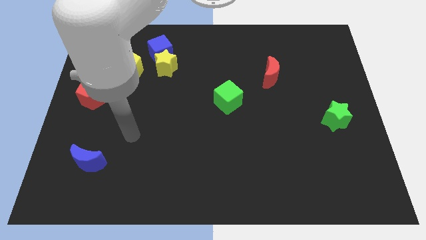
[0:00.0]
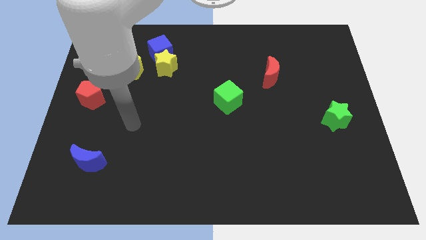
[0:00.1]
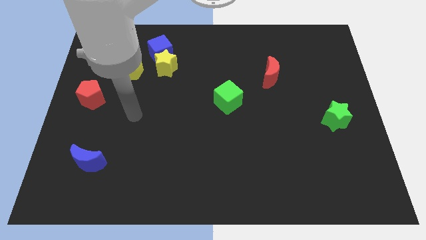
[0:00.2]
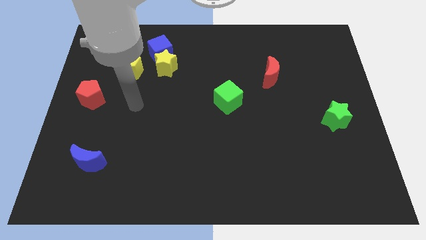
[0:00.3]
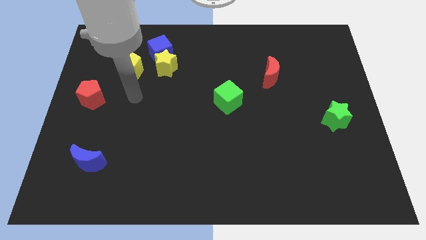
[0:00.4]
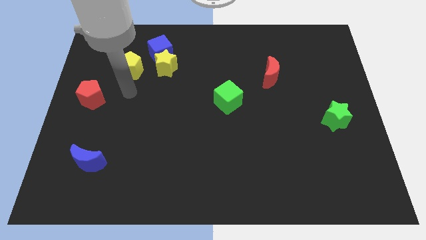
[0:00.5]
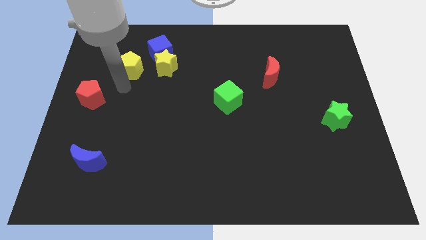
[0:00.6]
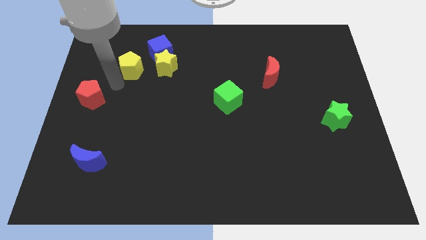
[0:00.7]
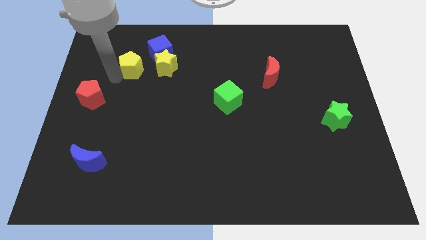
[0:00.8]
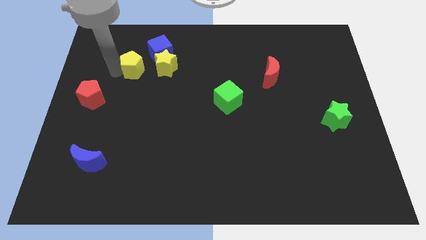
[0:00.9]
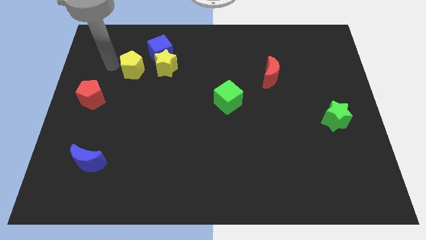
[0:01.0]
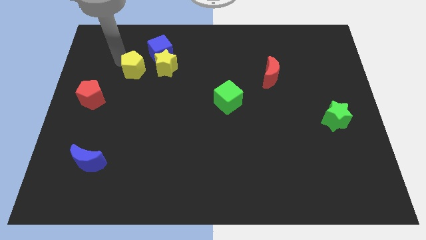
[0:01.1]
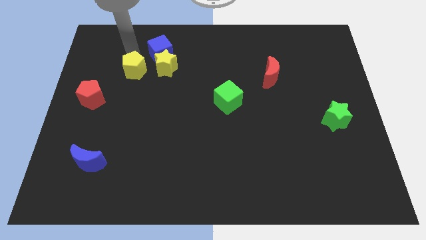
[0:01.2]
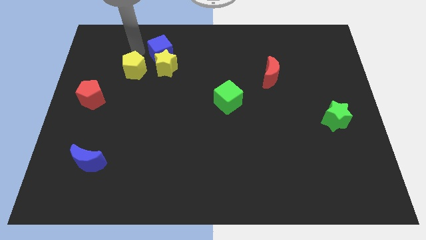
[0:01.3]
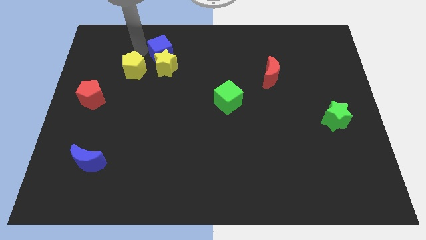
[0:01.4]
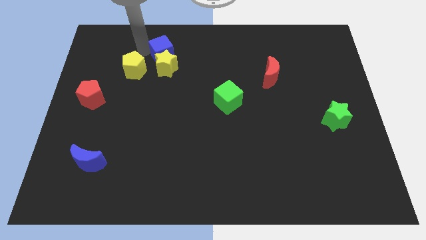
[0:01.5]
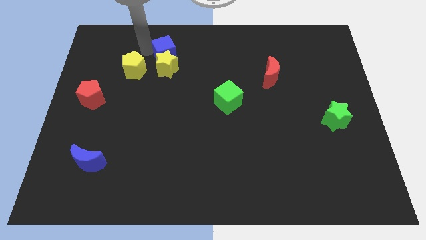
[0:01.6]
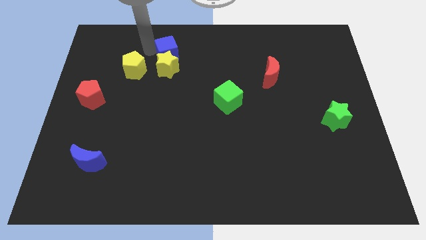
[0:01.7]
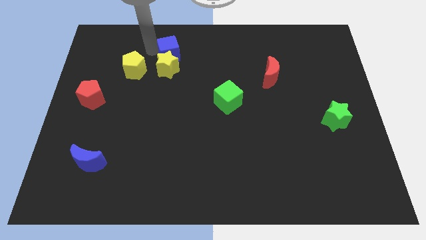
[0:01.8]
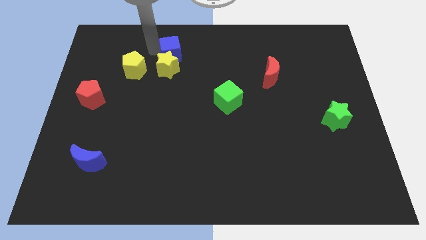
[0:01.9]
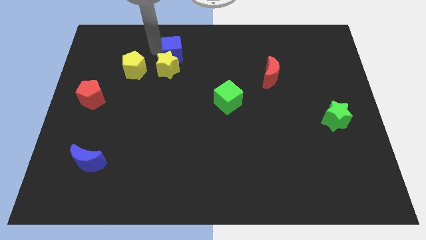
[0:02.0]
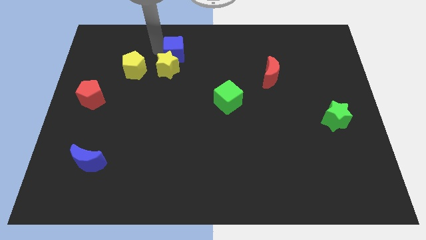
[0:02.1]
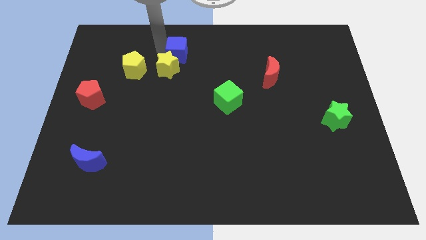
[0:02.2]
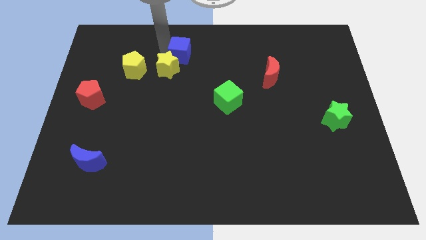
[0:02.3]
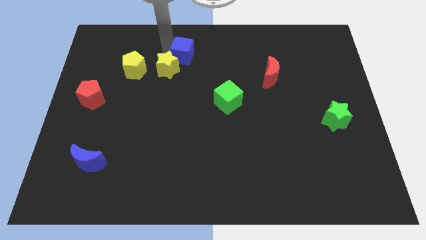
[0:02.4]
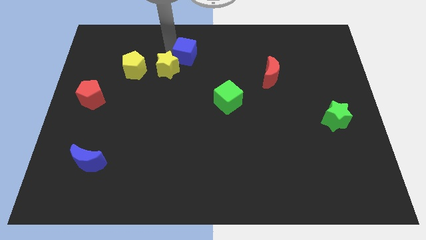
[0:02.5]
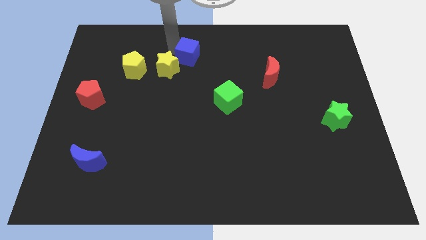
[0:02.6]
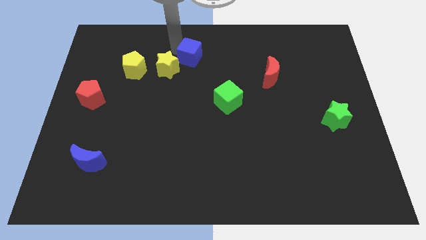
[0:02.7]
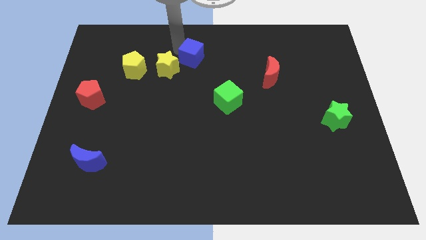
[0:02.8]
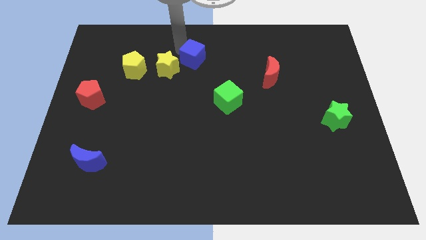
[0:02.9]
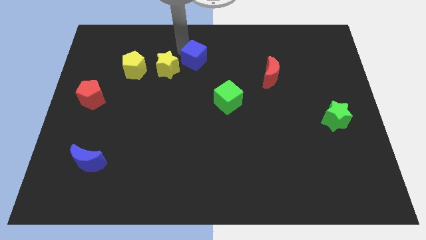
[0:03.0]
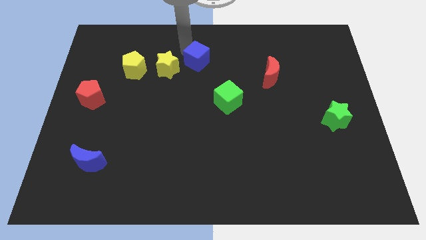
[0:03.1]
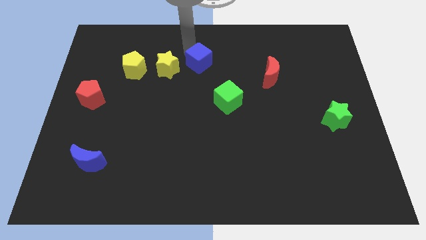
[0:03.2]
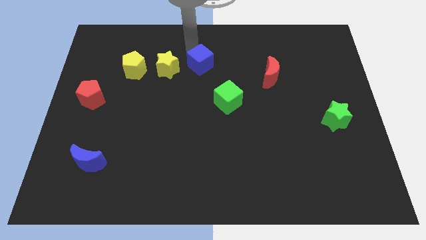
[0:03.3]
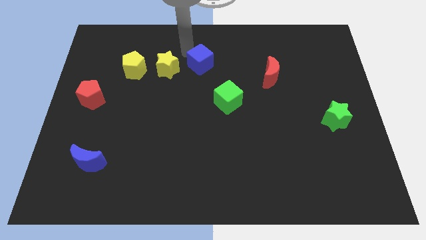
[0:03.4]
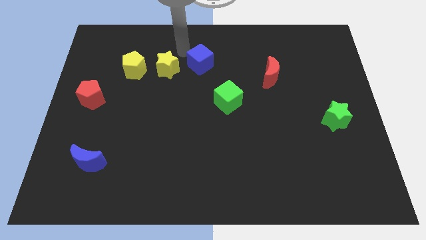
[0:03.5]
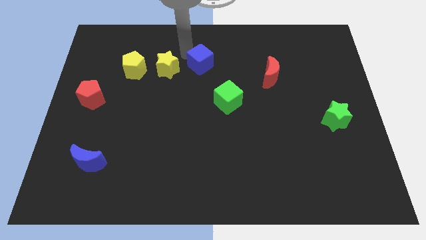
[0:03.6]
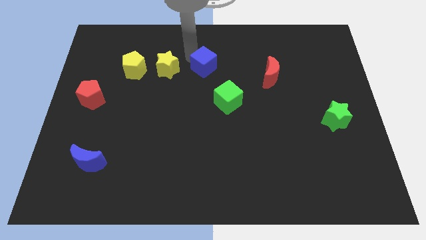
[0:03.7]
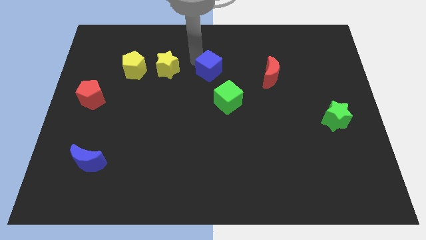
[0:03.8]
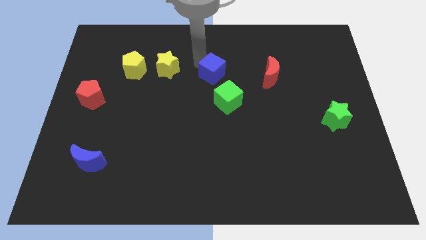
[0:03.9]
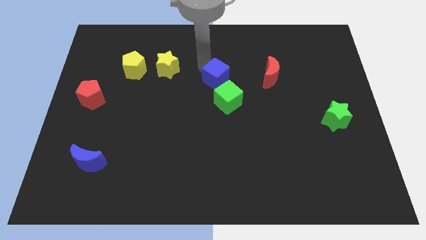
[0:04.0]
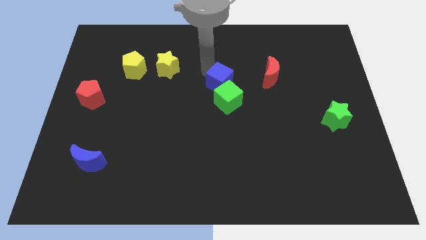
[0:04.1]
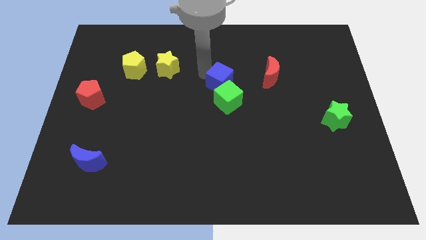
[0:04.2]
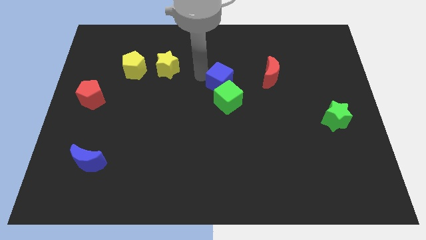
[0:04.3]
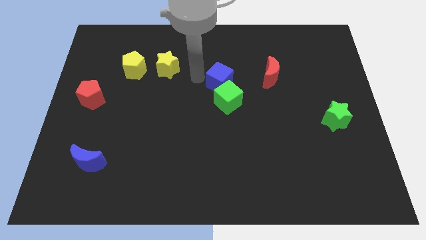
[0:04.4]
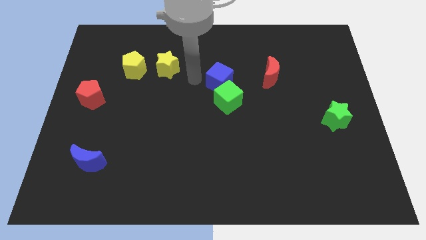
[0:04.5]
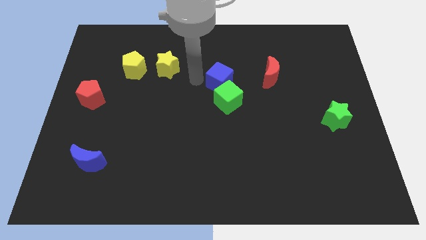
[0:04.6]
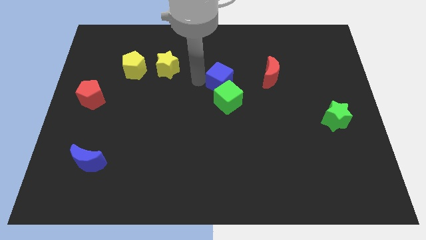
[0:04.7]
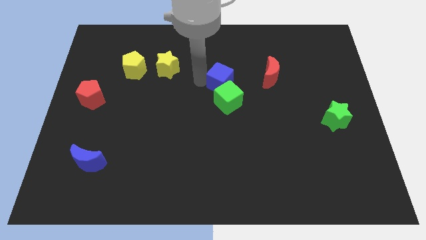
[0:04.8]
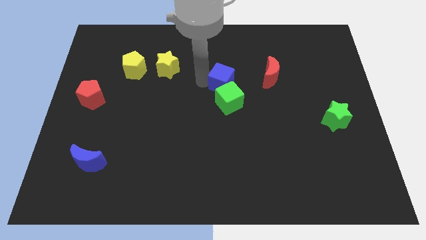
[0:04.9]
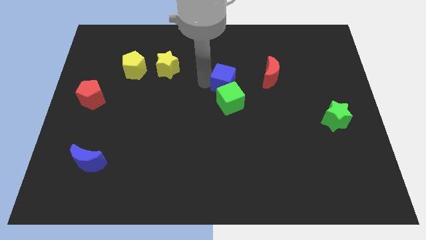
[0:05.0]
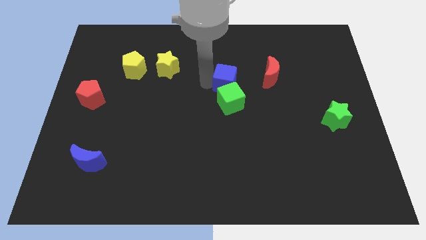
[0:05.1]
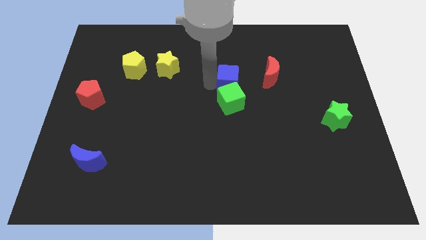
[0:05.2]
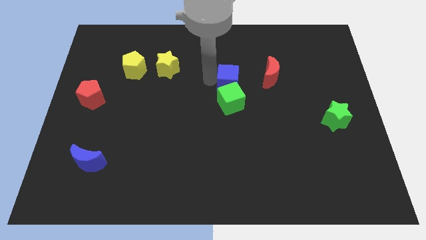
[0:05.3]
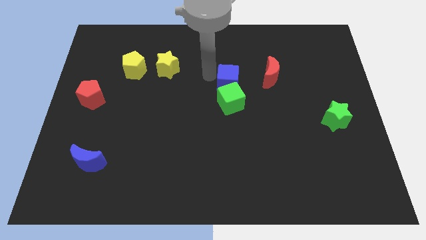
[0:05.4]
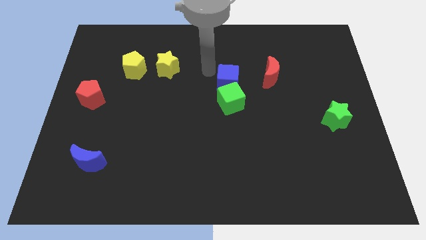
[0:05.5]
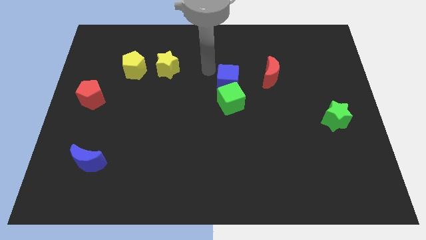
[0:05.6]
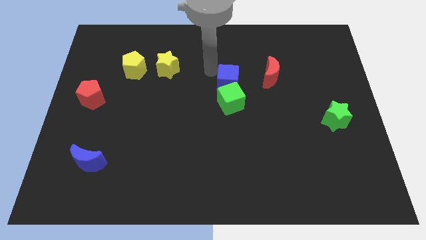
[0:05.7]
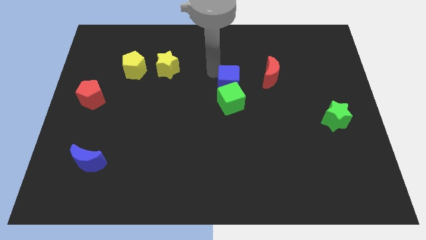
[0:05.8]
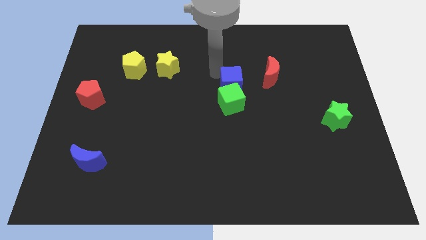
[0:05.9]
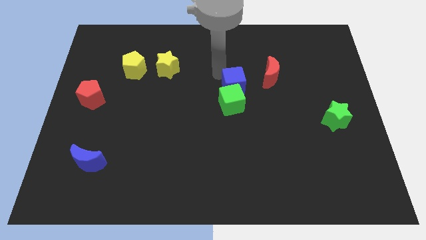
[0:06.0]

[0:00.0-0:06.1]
move the blue cube down and to the right

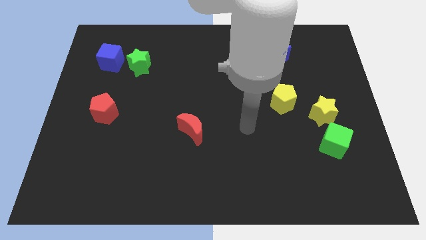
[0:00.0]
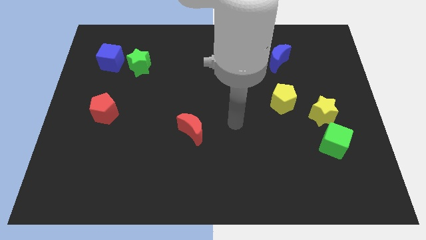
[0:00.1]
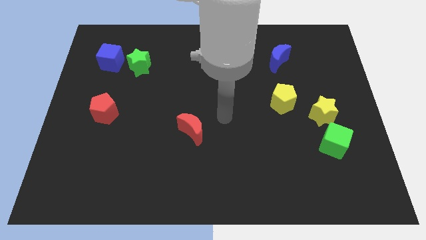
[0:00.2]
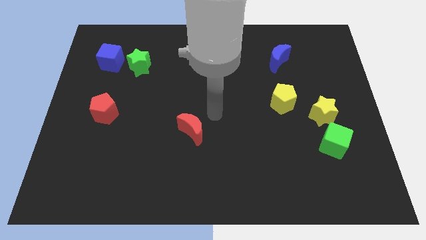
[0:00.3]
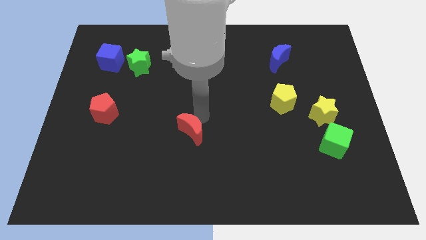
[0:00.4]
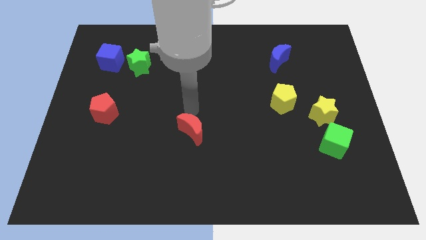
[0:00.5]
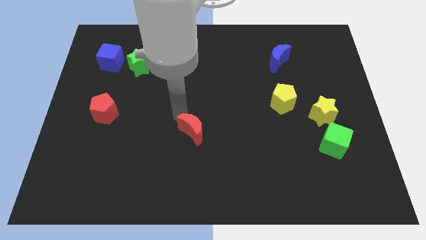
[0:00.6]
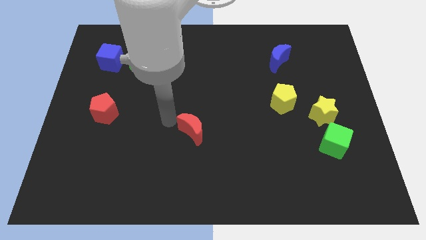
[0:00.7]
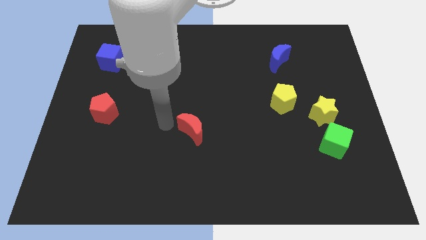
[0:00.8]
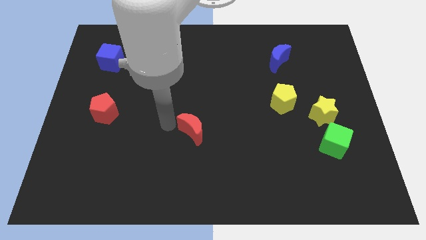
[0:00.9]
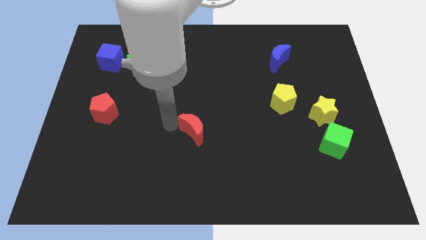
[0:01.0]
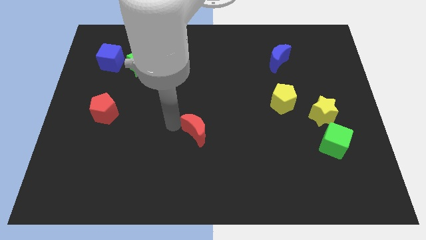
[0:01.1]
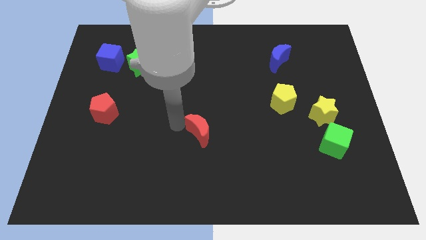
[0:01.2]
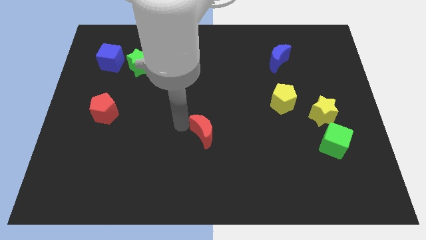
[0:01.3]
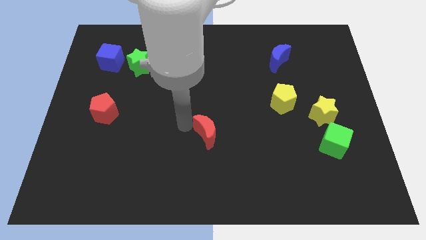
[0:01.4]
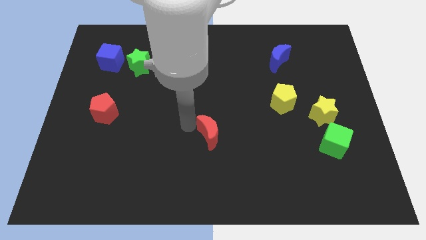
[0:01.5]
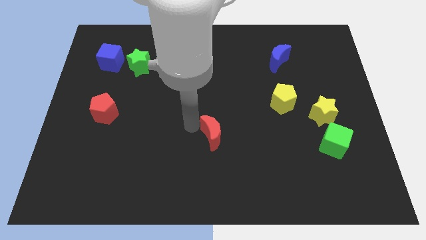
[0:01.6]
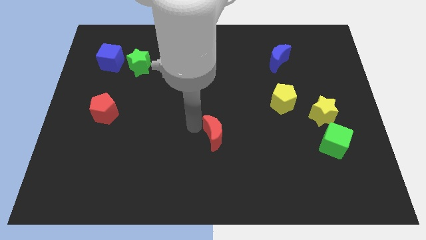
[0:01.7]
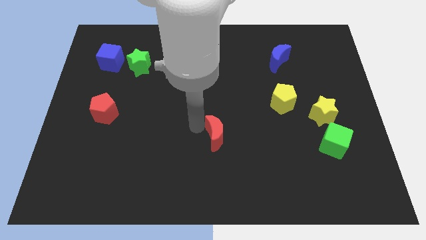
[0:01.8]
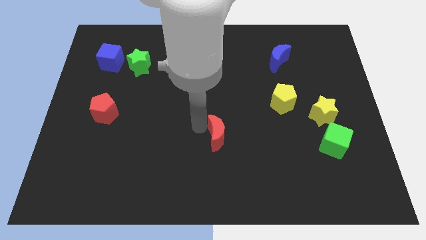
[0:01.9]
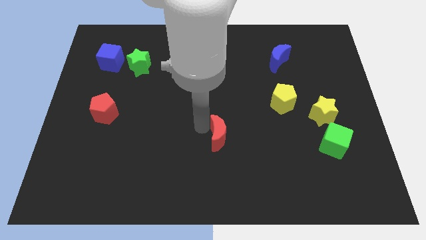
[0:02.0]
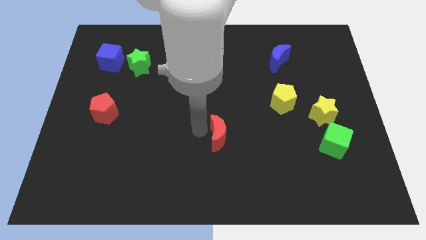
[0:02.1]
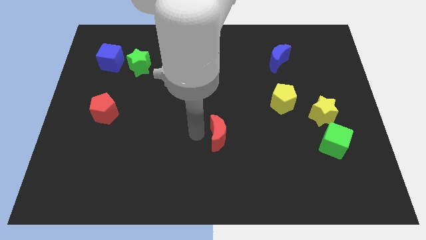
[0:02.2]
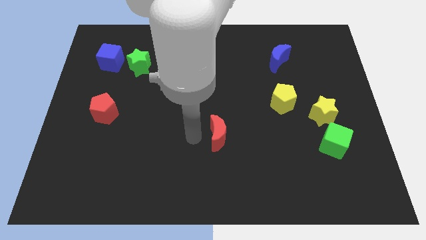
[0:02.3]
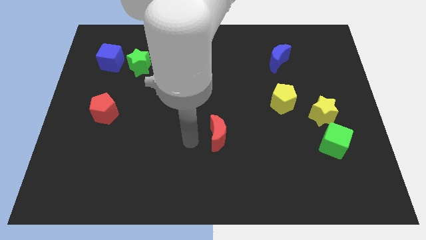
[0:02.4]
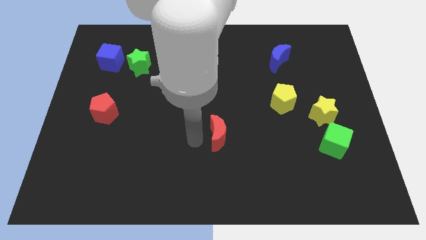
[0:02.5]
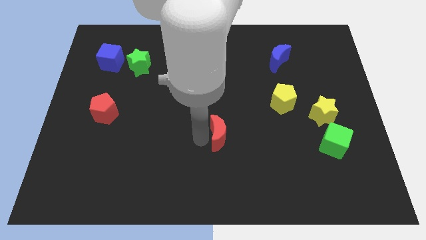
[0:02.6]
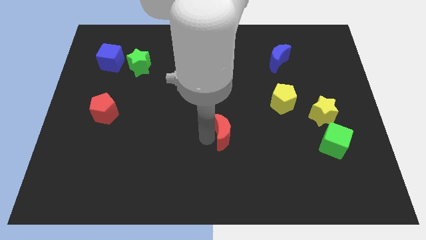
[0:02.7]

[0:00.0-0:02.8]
slide the red moon a bit right
